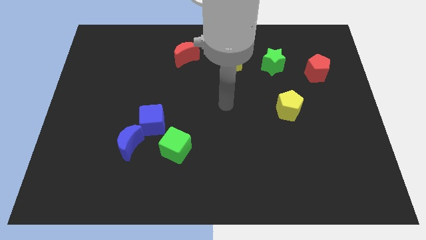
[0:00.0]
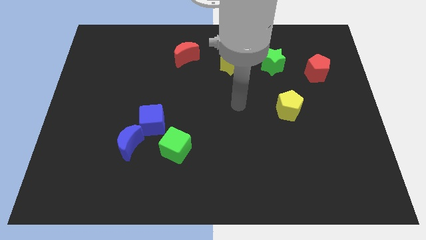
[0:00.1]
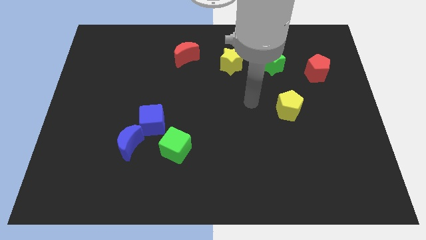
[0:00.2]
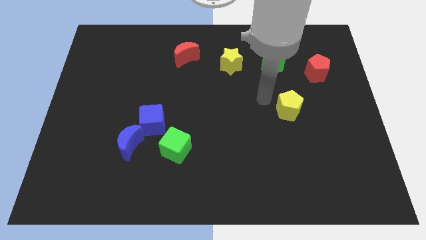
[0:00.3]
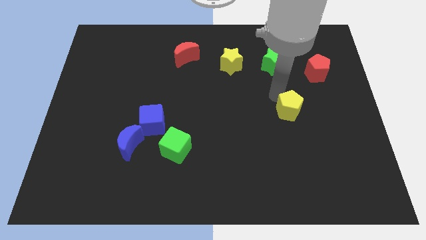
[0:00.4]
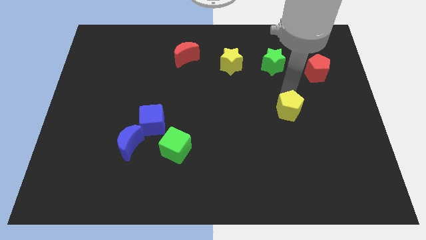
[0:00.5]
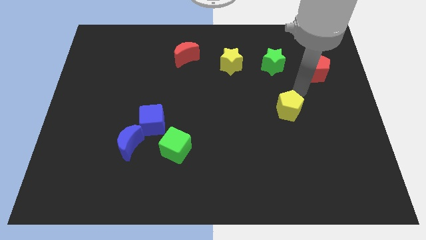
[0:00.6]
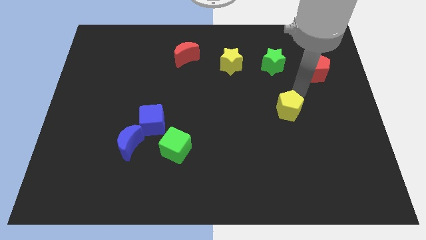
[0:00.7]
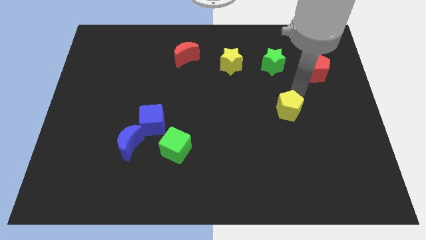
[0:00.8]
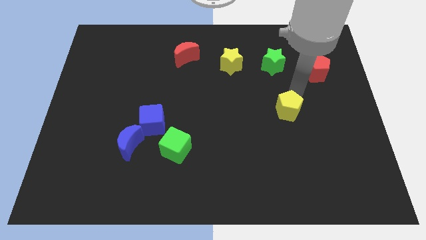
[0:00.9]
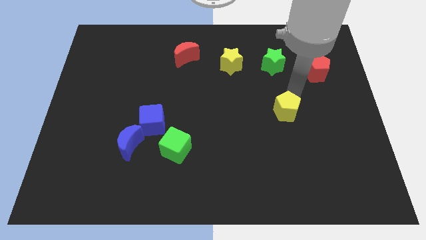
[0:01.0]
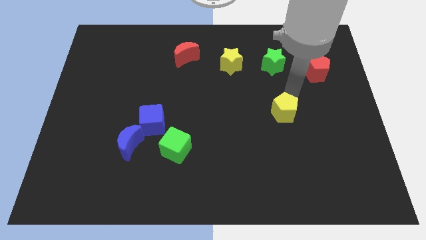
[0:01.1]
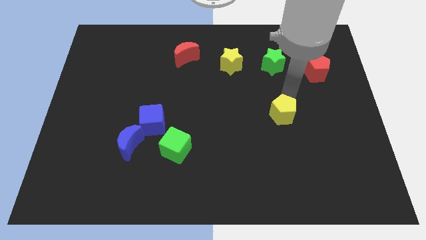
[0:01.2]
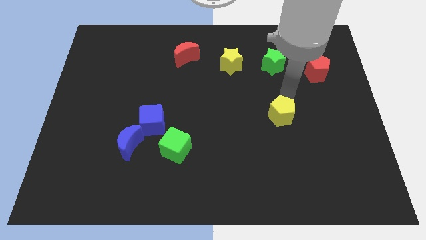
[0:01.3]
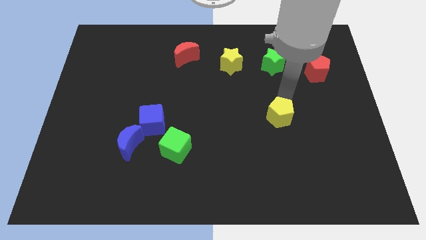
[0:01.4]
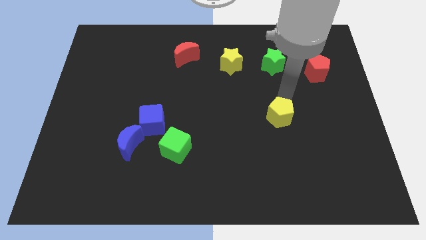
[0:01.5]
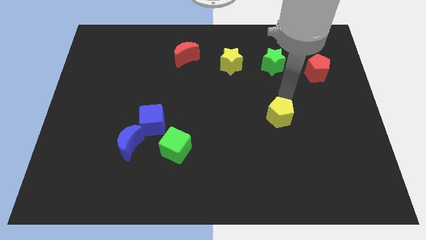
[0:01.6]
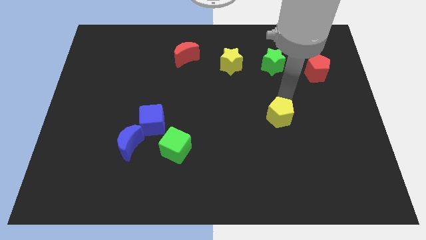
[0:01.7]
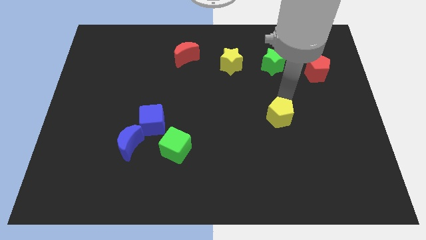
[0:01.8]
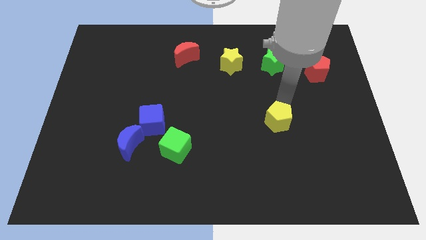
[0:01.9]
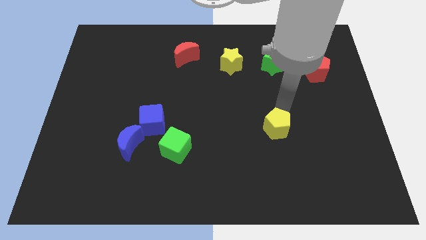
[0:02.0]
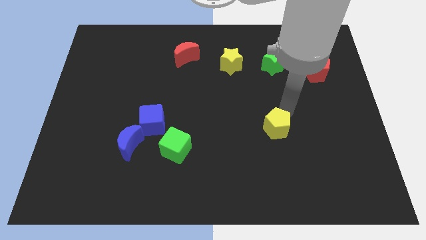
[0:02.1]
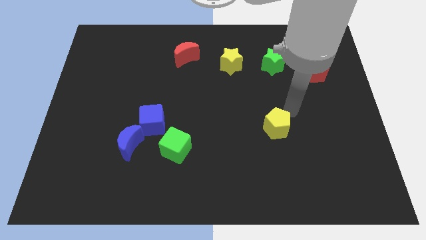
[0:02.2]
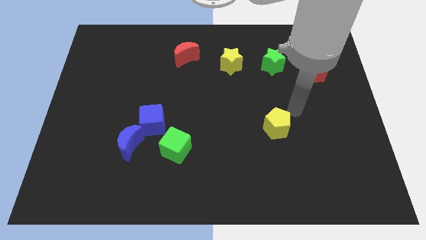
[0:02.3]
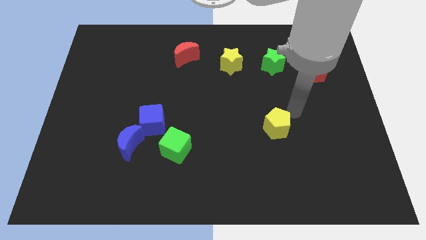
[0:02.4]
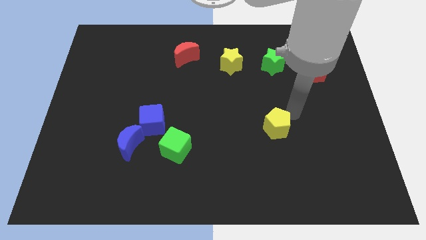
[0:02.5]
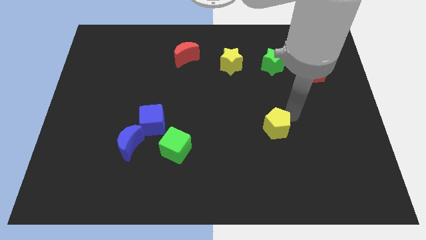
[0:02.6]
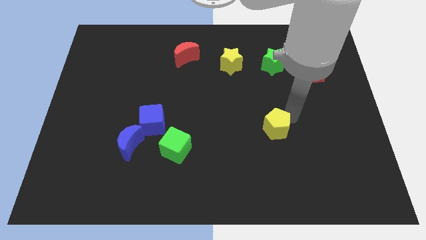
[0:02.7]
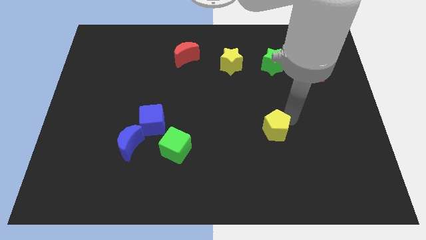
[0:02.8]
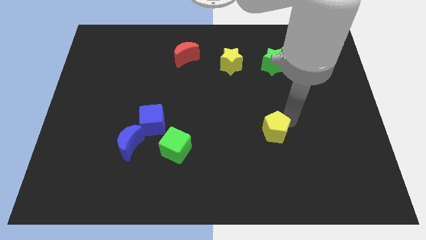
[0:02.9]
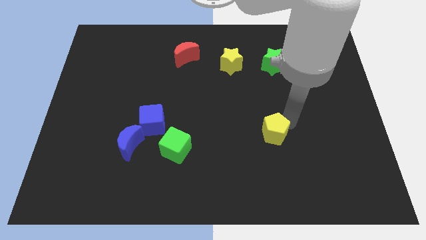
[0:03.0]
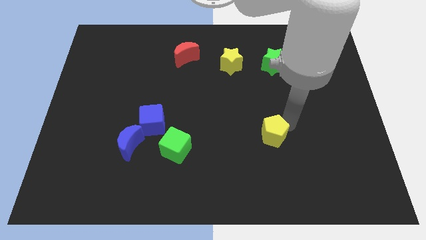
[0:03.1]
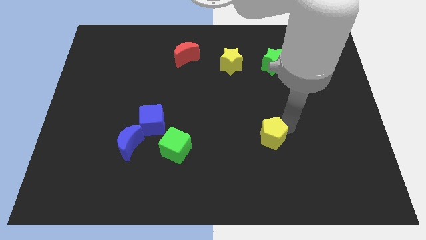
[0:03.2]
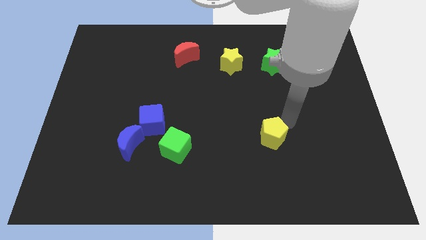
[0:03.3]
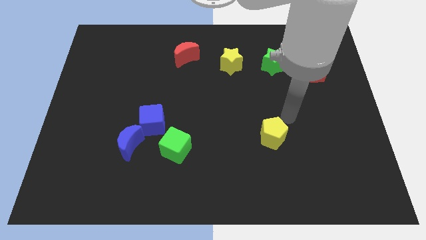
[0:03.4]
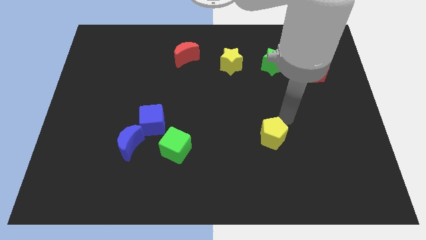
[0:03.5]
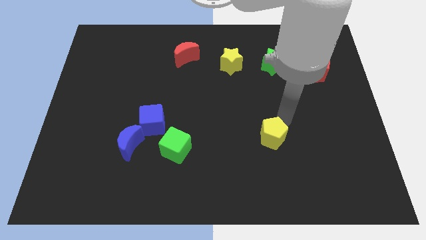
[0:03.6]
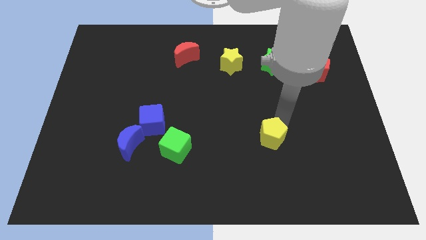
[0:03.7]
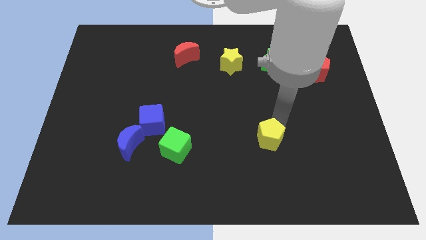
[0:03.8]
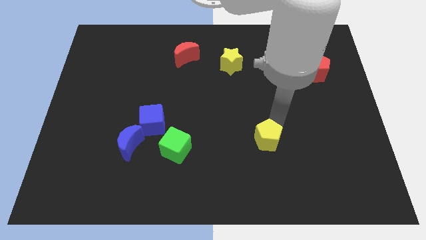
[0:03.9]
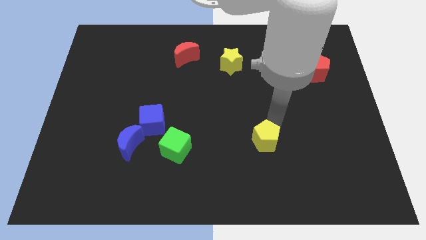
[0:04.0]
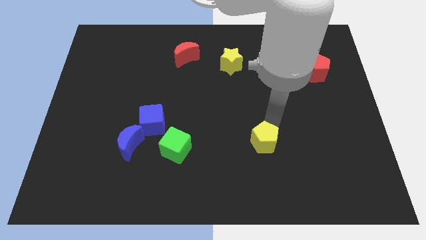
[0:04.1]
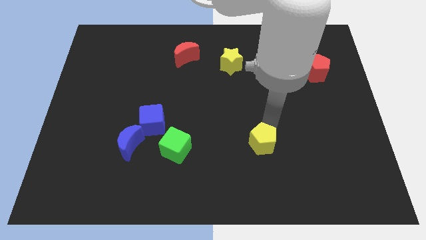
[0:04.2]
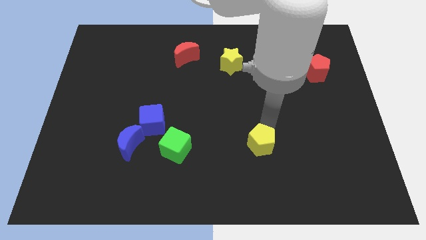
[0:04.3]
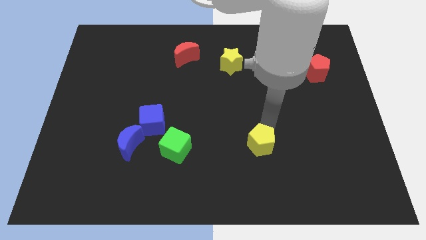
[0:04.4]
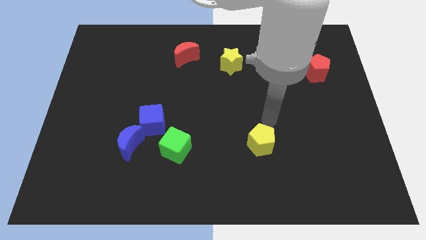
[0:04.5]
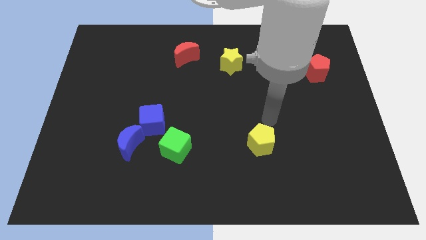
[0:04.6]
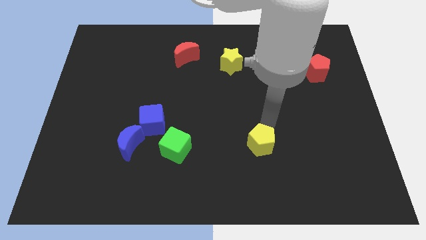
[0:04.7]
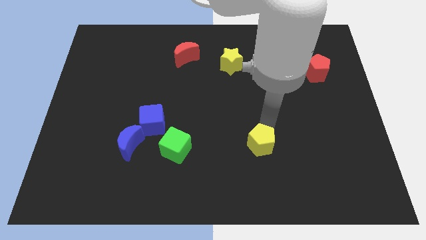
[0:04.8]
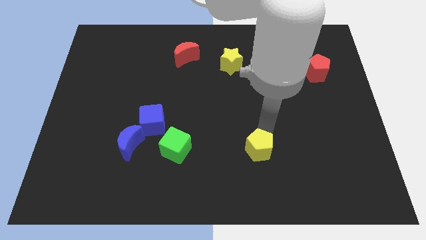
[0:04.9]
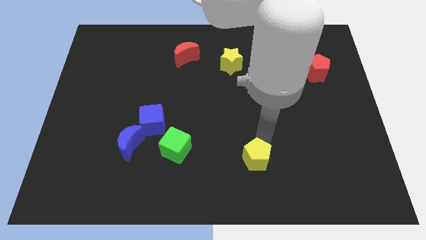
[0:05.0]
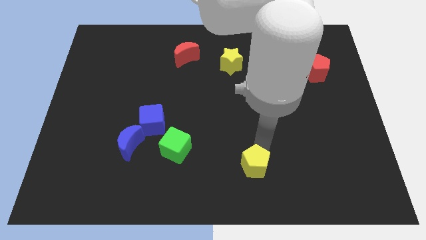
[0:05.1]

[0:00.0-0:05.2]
move the yellow pentagon to the bottom

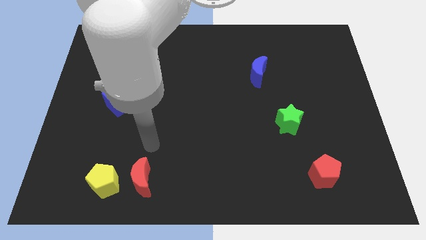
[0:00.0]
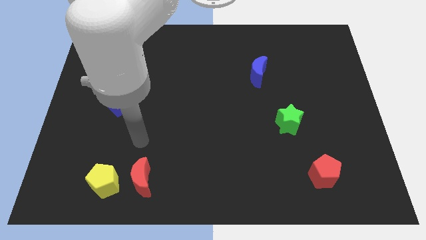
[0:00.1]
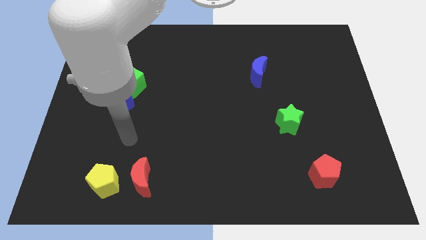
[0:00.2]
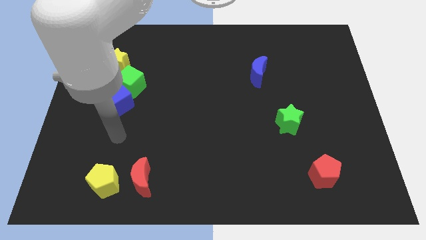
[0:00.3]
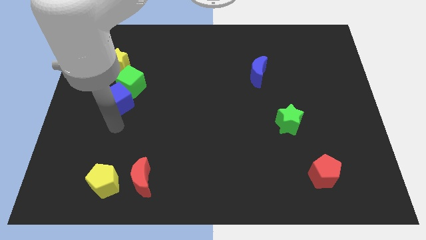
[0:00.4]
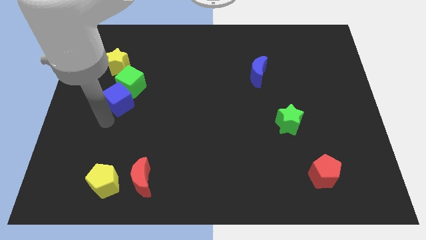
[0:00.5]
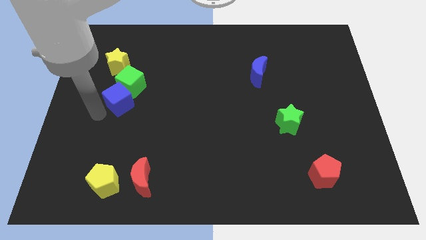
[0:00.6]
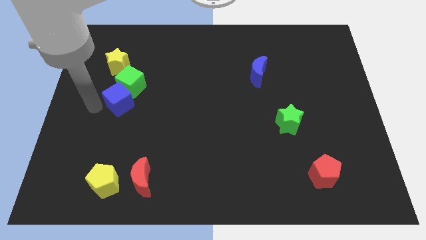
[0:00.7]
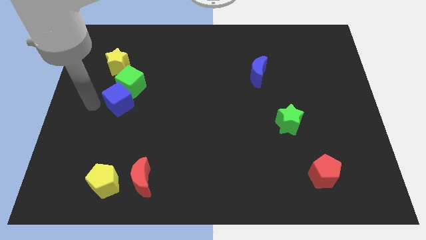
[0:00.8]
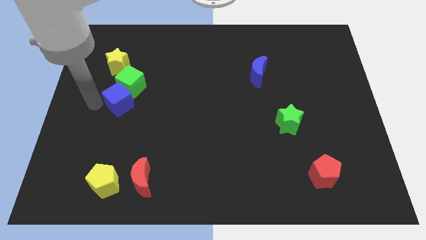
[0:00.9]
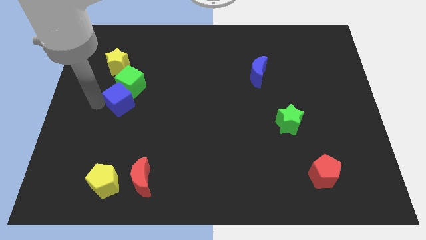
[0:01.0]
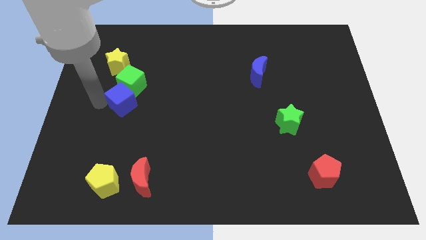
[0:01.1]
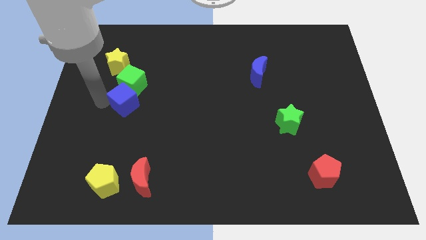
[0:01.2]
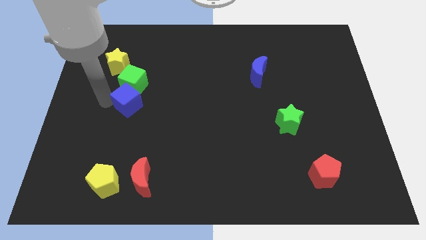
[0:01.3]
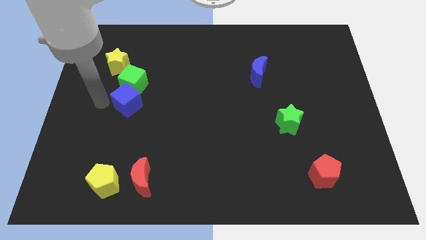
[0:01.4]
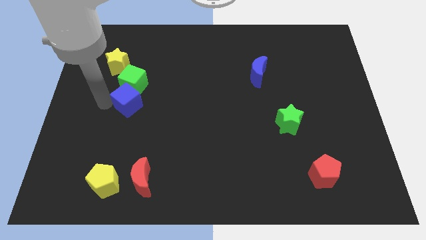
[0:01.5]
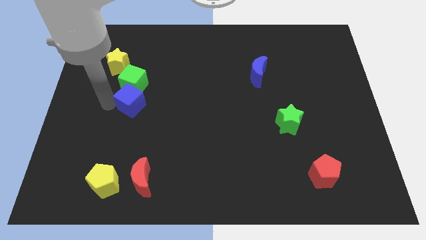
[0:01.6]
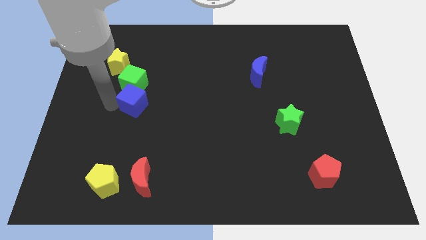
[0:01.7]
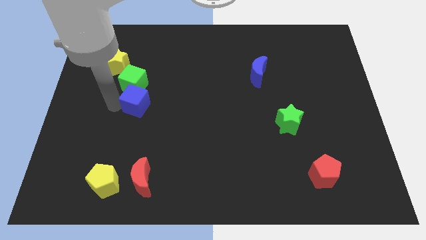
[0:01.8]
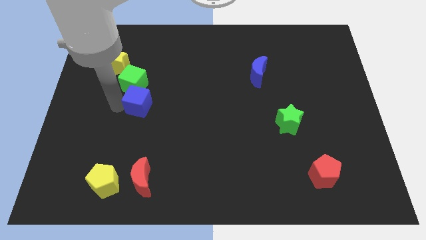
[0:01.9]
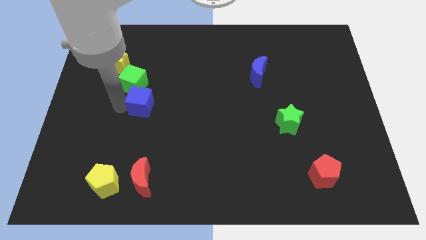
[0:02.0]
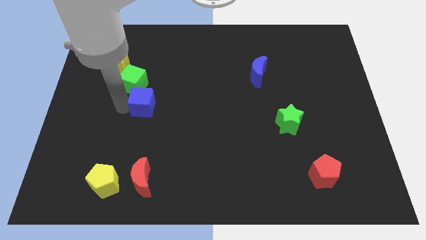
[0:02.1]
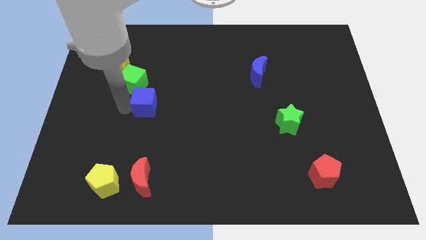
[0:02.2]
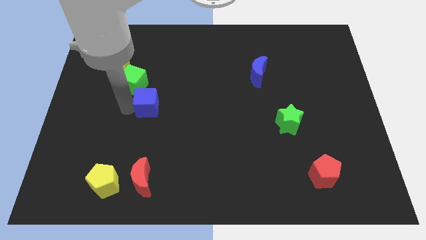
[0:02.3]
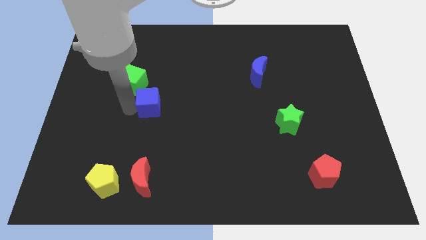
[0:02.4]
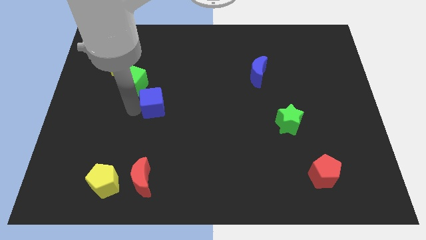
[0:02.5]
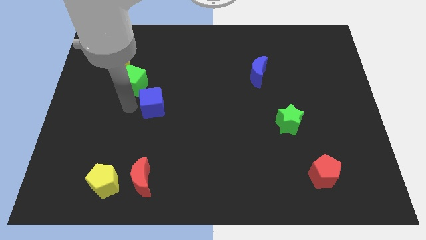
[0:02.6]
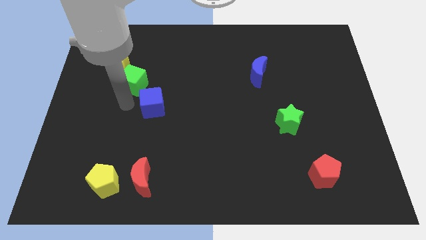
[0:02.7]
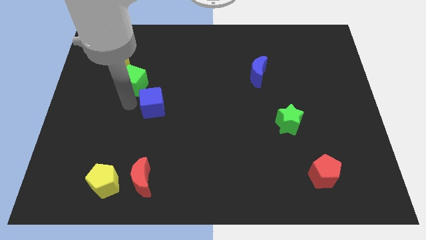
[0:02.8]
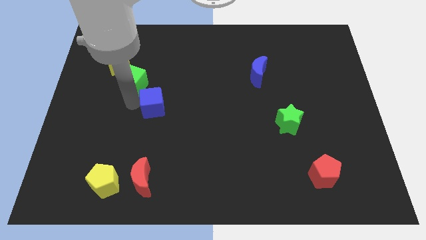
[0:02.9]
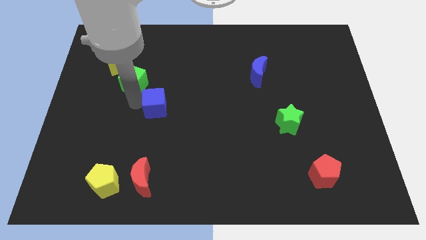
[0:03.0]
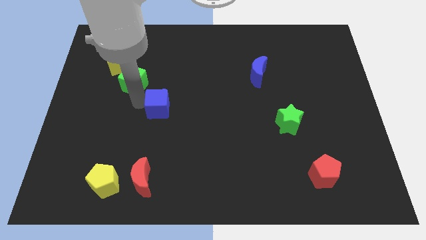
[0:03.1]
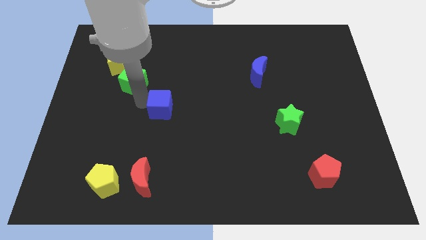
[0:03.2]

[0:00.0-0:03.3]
move the blue cube to the middle of the board
